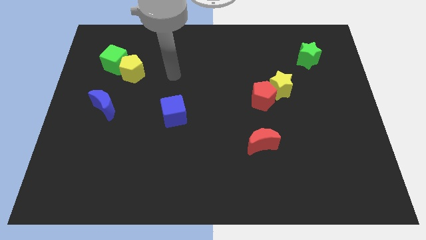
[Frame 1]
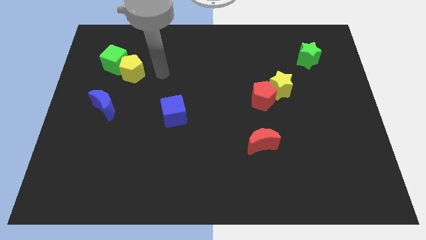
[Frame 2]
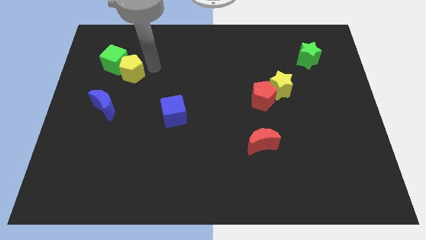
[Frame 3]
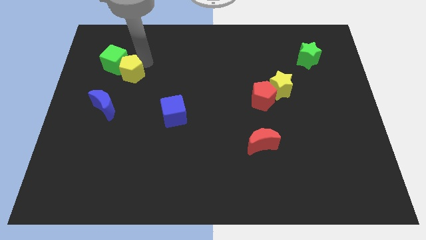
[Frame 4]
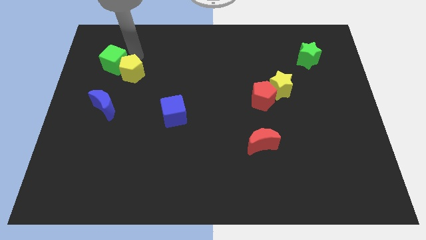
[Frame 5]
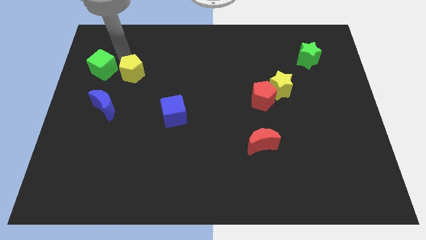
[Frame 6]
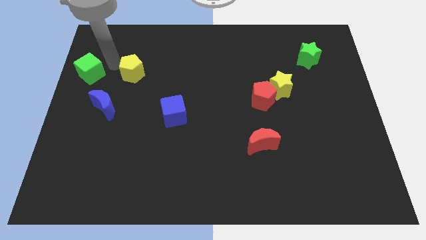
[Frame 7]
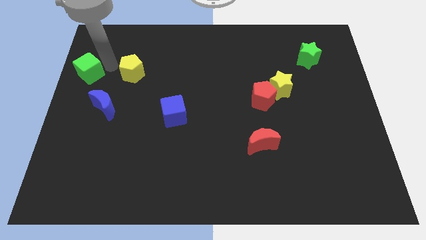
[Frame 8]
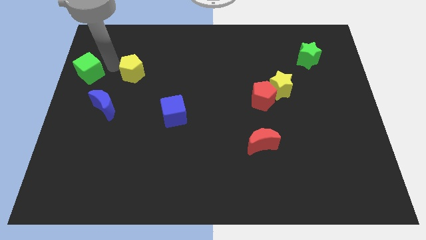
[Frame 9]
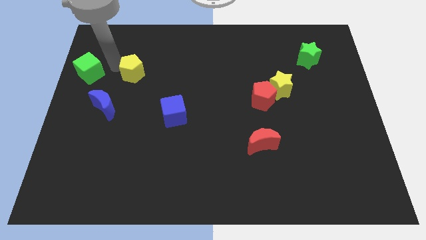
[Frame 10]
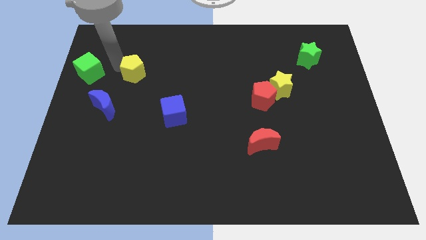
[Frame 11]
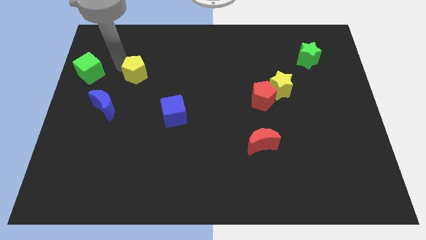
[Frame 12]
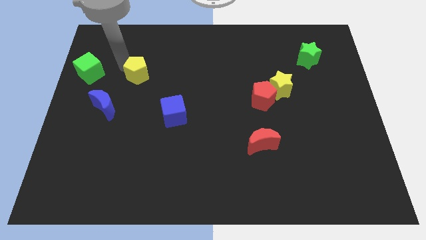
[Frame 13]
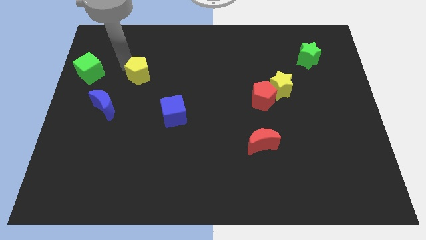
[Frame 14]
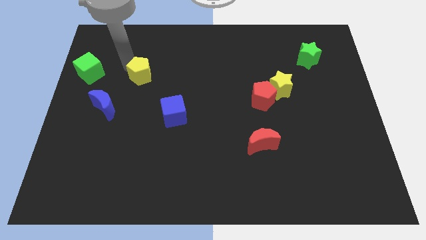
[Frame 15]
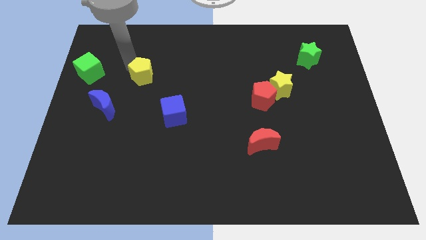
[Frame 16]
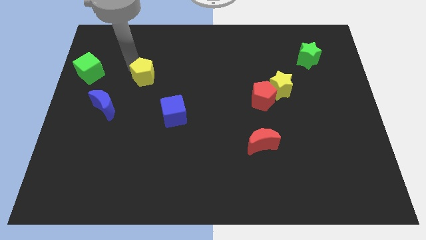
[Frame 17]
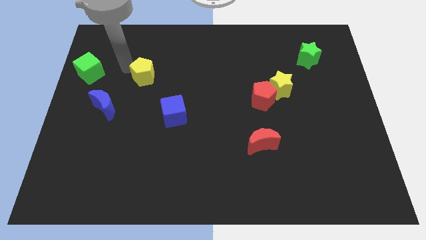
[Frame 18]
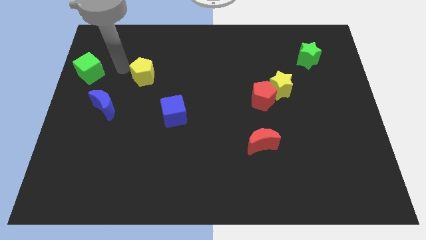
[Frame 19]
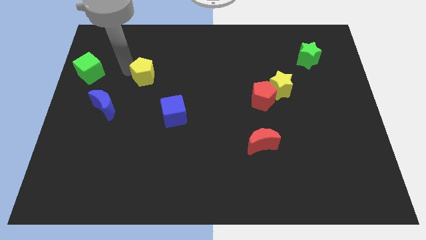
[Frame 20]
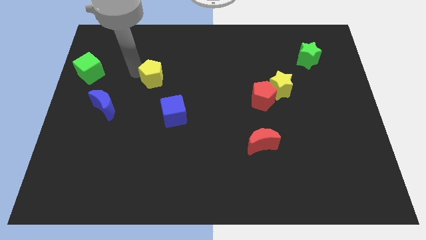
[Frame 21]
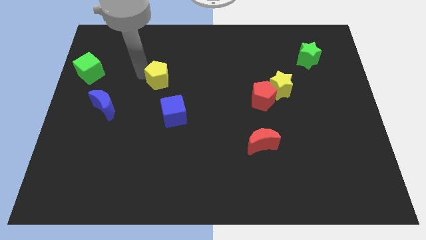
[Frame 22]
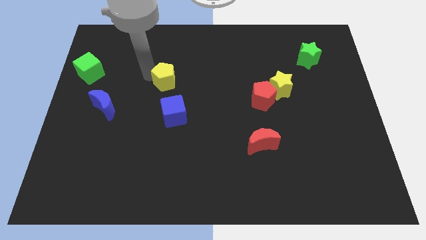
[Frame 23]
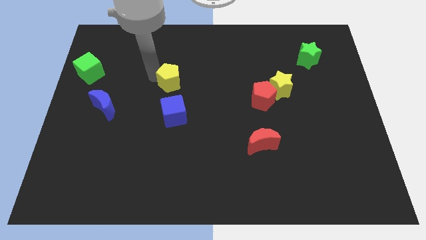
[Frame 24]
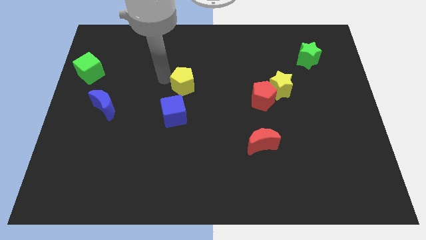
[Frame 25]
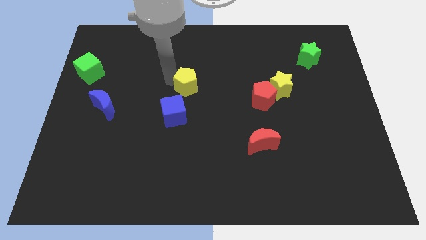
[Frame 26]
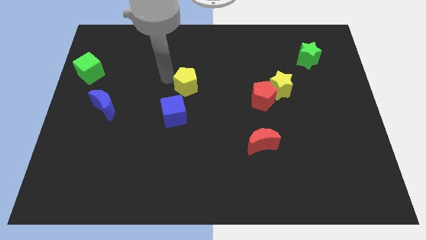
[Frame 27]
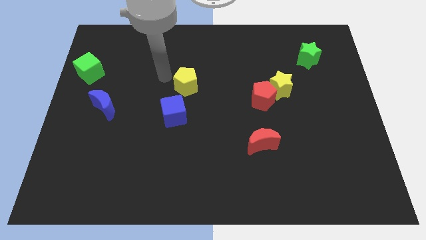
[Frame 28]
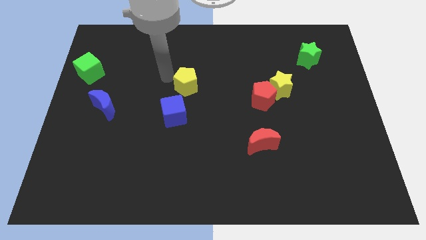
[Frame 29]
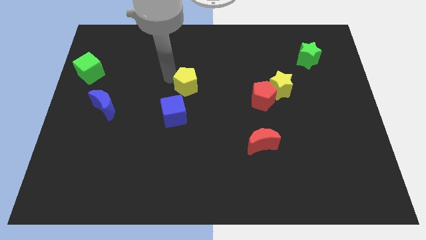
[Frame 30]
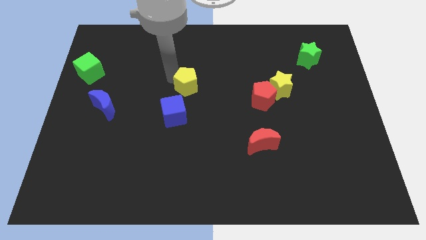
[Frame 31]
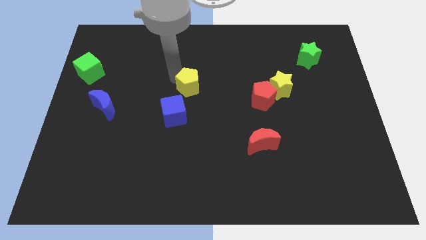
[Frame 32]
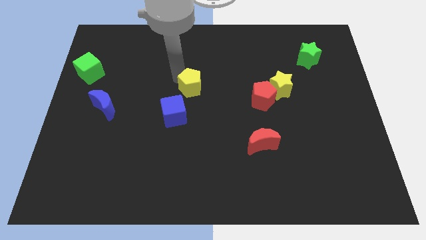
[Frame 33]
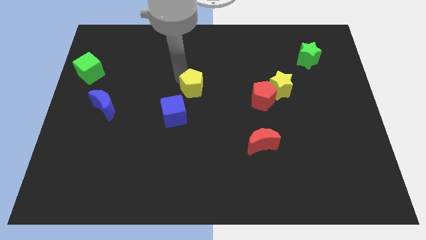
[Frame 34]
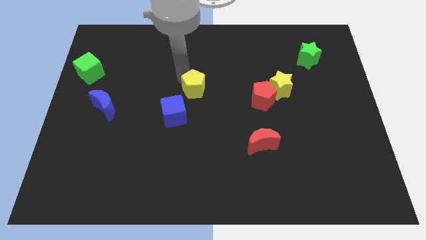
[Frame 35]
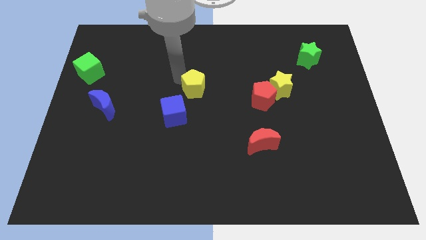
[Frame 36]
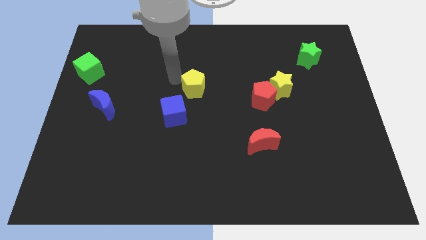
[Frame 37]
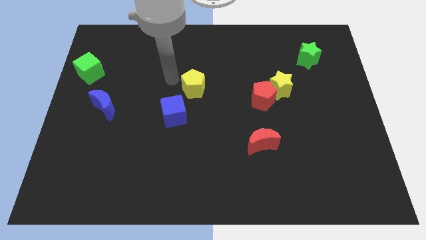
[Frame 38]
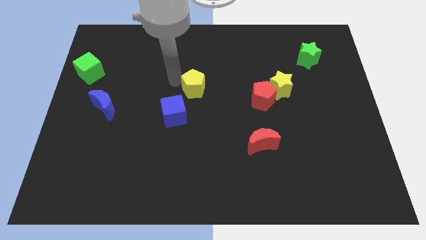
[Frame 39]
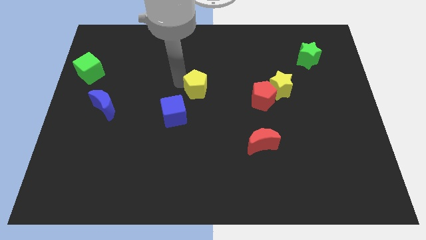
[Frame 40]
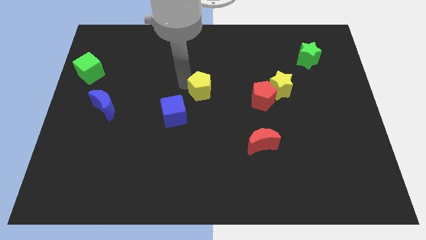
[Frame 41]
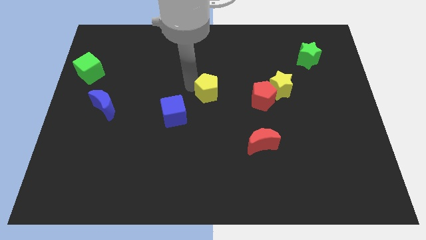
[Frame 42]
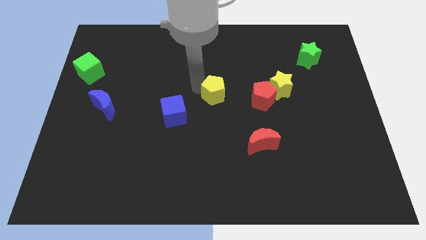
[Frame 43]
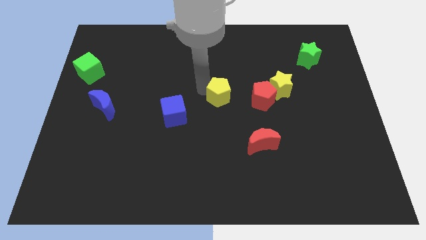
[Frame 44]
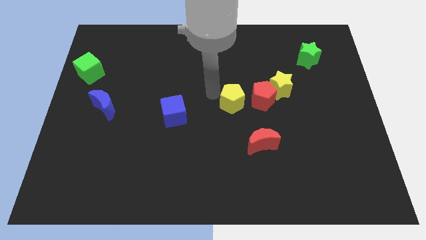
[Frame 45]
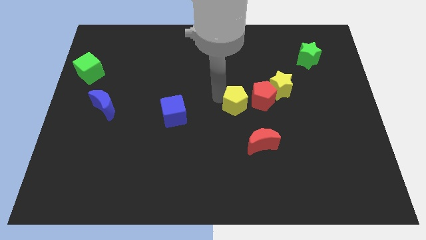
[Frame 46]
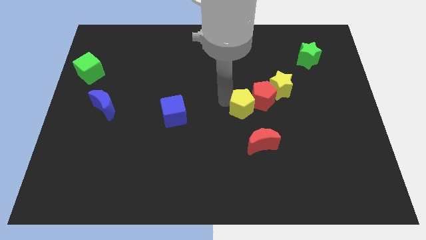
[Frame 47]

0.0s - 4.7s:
move the yellow pentagon close to the red pentagon

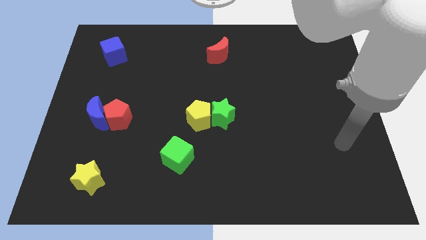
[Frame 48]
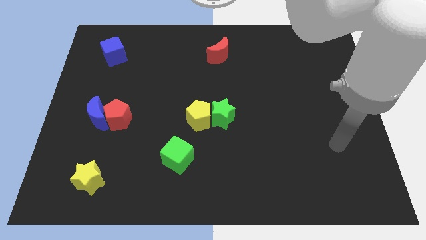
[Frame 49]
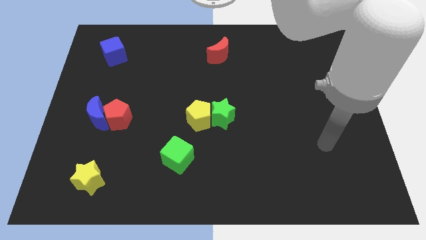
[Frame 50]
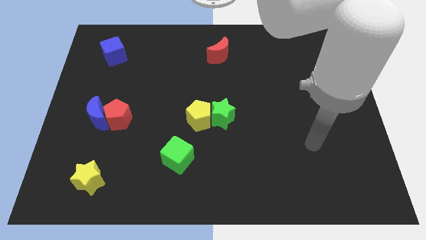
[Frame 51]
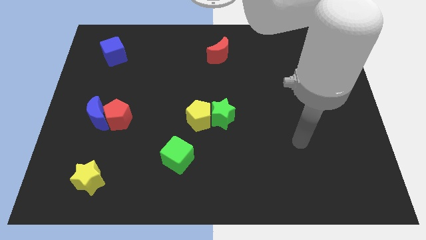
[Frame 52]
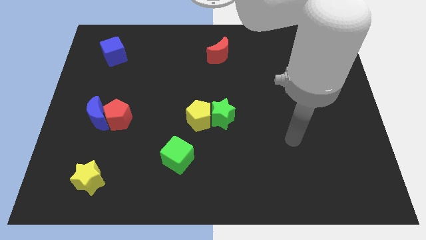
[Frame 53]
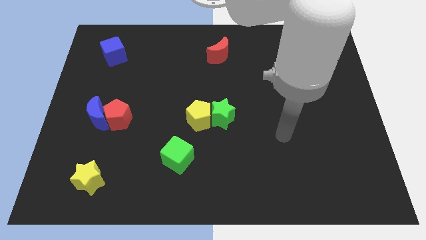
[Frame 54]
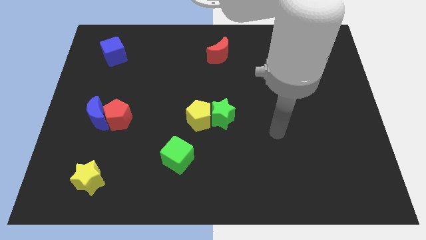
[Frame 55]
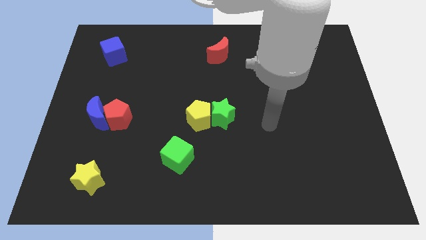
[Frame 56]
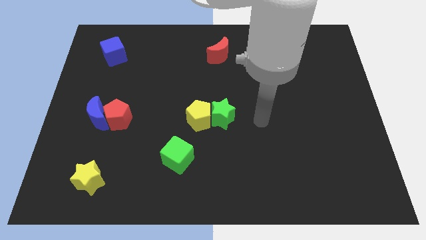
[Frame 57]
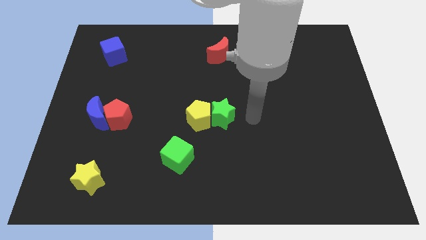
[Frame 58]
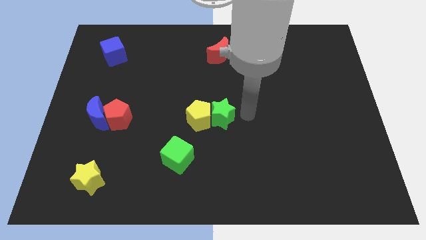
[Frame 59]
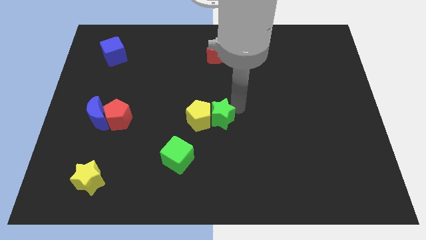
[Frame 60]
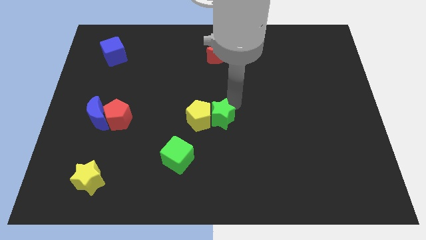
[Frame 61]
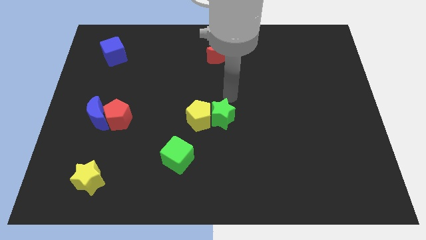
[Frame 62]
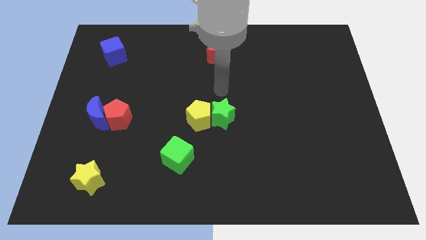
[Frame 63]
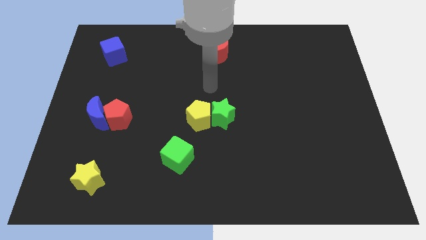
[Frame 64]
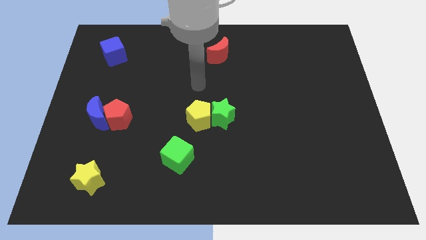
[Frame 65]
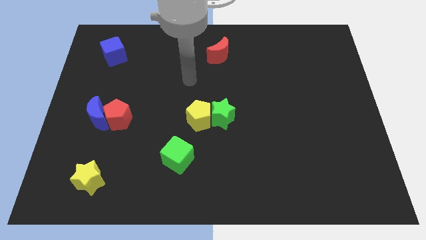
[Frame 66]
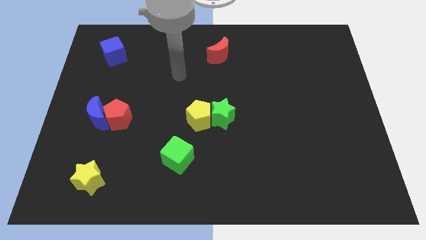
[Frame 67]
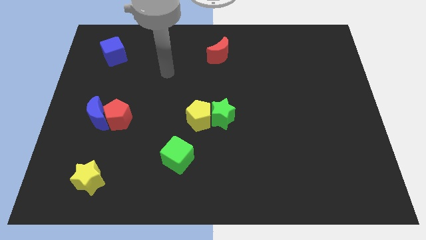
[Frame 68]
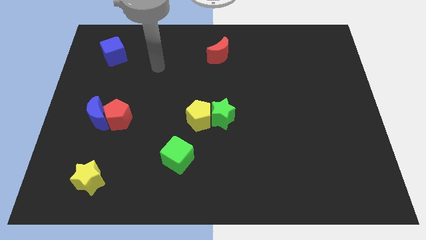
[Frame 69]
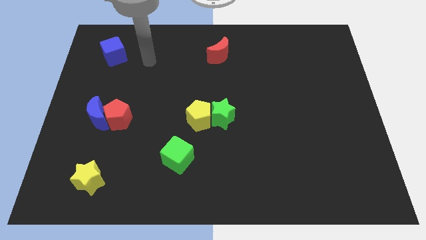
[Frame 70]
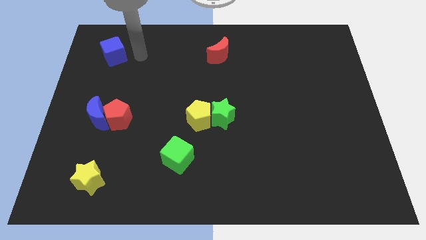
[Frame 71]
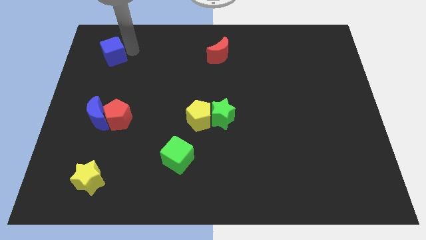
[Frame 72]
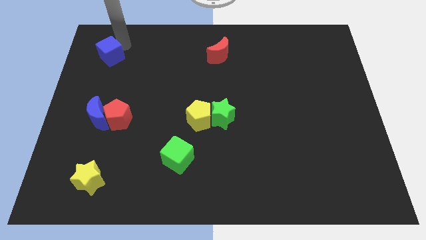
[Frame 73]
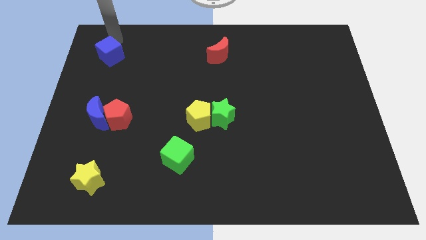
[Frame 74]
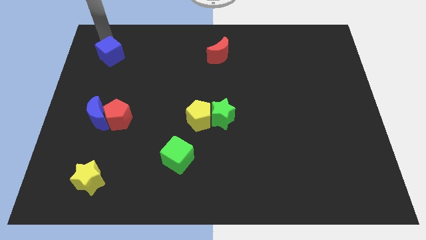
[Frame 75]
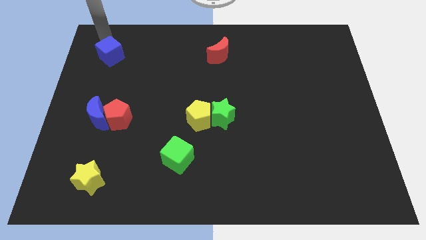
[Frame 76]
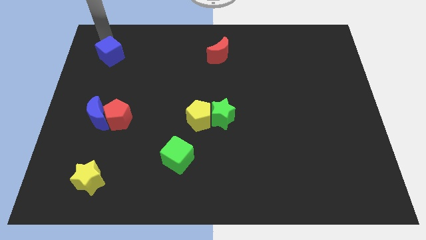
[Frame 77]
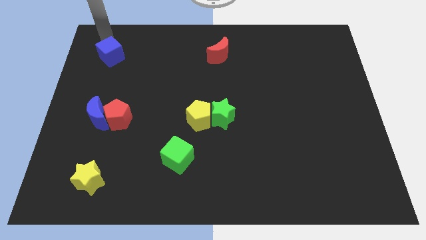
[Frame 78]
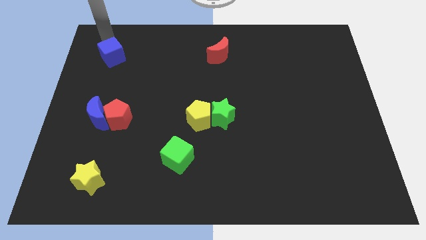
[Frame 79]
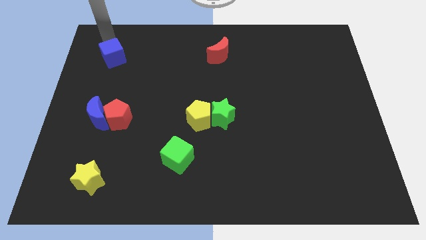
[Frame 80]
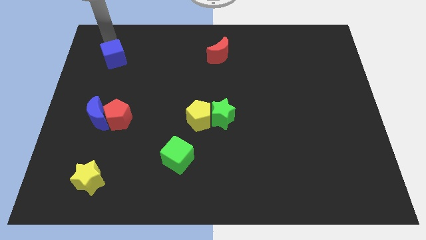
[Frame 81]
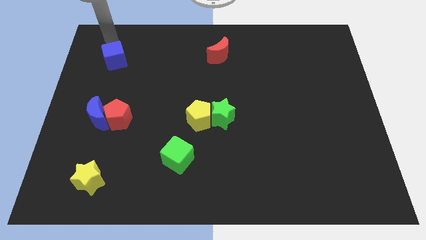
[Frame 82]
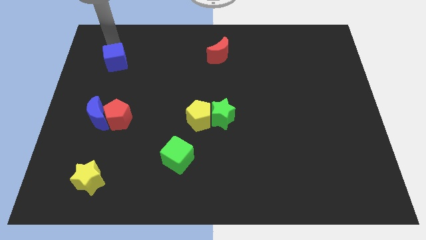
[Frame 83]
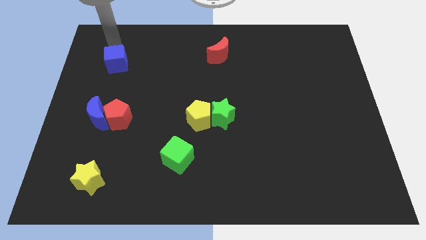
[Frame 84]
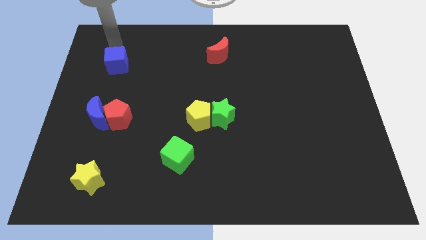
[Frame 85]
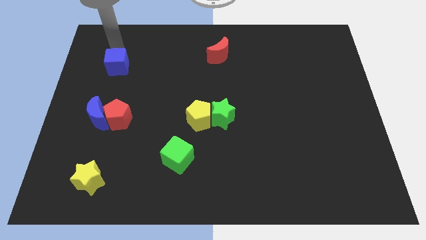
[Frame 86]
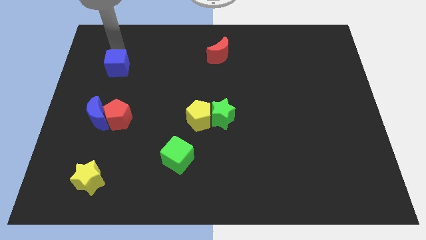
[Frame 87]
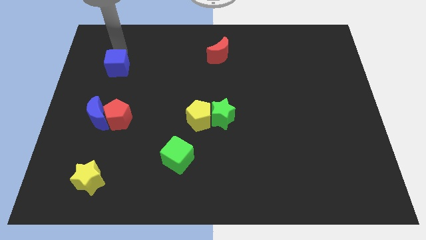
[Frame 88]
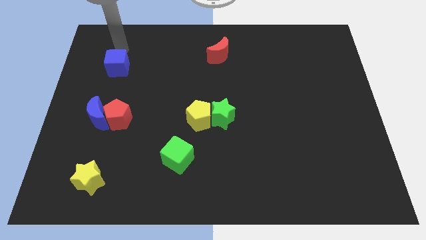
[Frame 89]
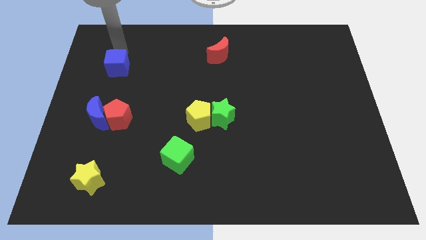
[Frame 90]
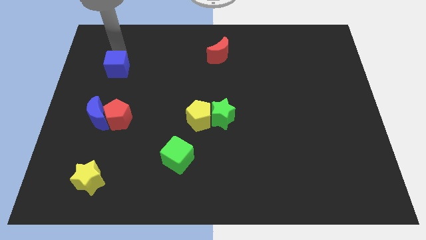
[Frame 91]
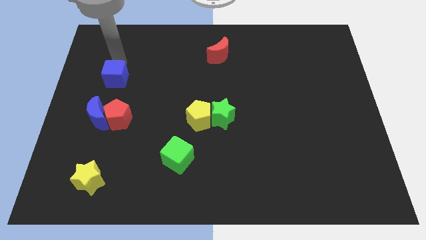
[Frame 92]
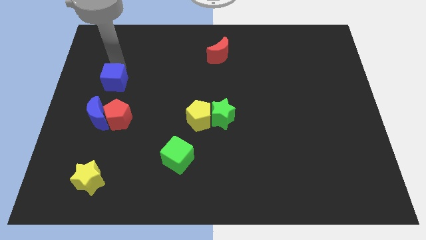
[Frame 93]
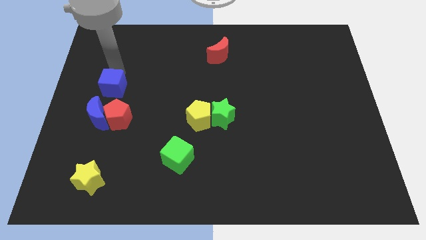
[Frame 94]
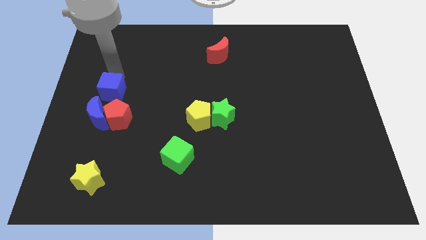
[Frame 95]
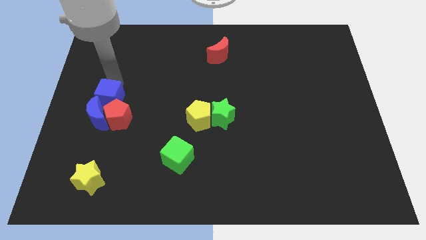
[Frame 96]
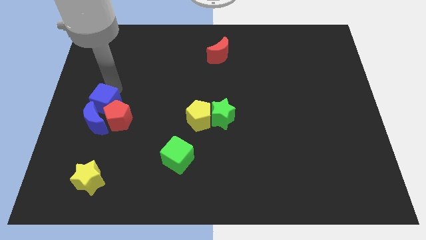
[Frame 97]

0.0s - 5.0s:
put the blue cube towards the blue moon
